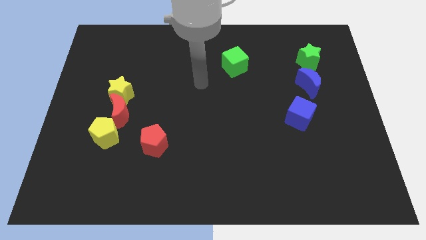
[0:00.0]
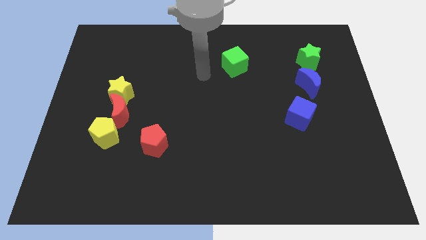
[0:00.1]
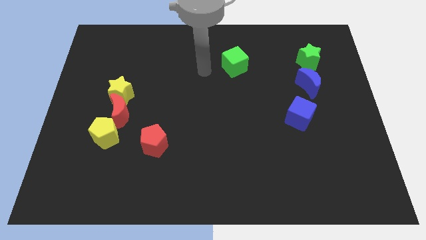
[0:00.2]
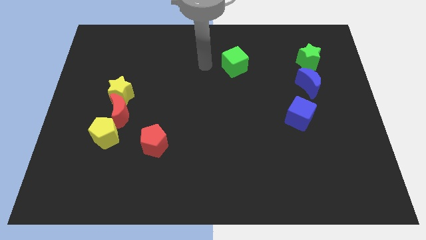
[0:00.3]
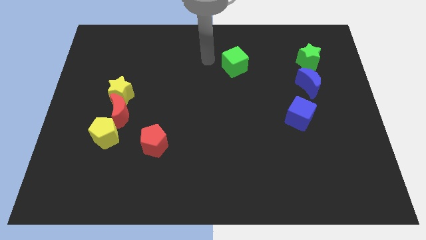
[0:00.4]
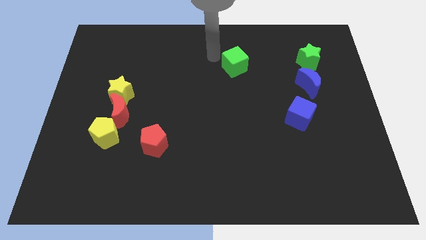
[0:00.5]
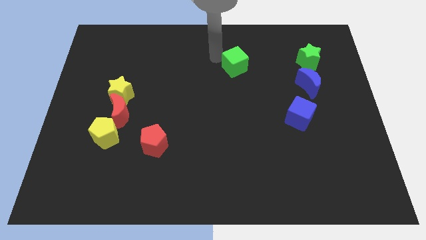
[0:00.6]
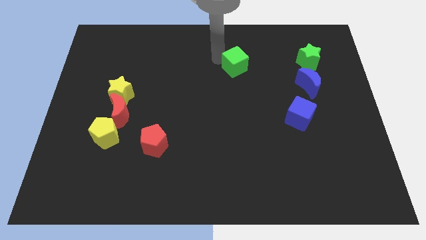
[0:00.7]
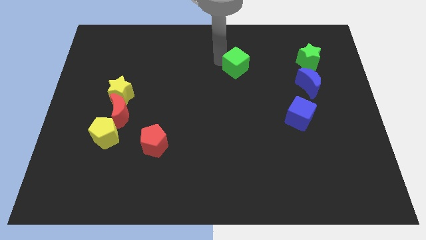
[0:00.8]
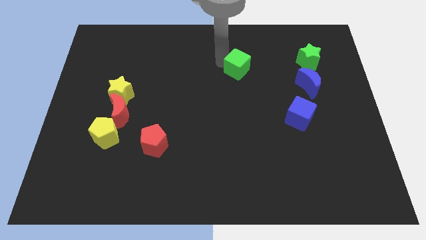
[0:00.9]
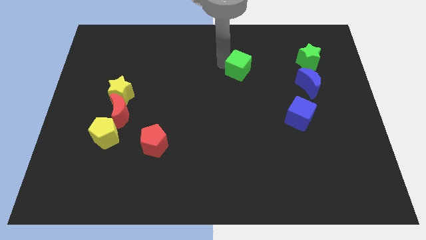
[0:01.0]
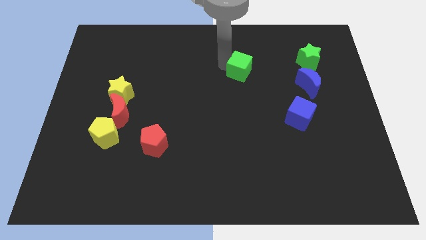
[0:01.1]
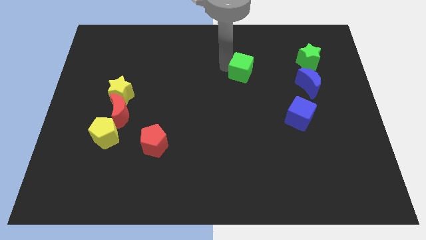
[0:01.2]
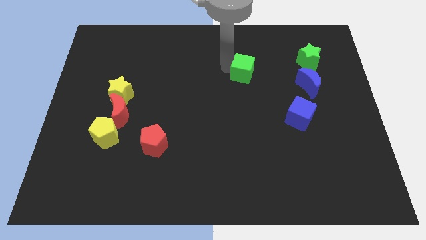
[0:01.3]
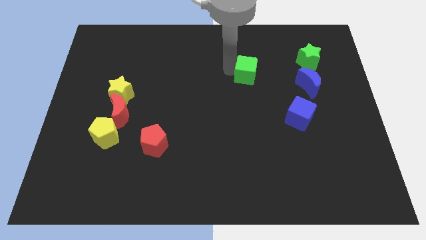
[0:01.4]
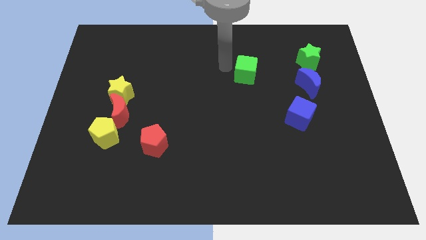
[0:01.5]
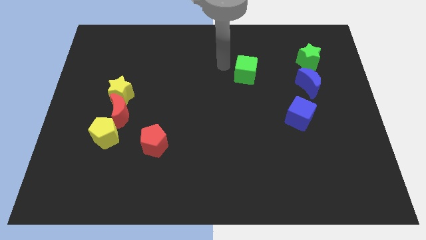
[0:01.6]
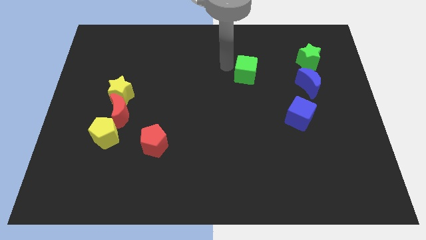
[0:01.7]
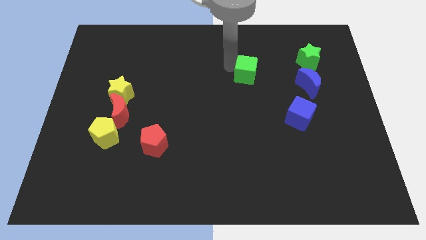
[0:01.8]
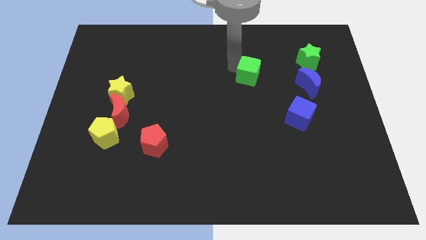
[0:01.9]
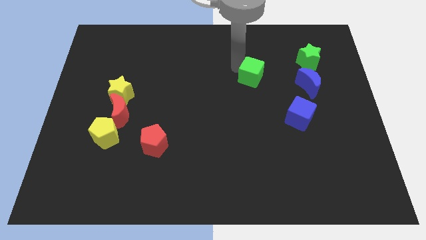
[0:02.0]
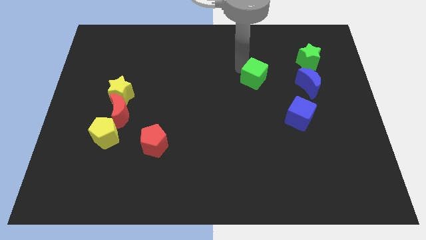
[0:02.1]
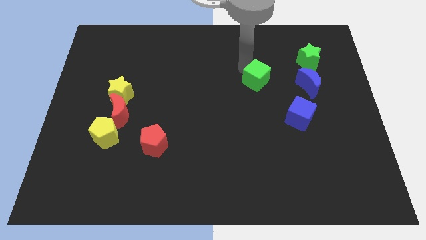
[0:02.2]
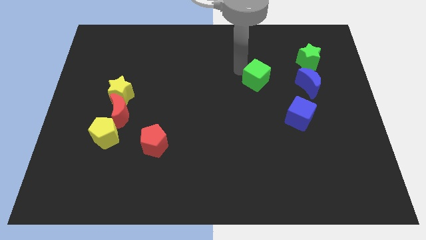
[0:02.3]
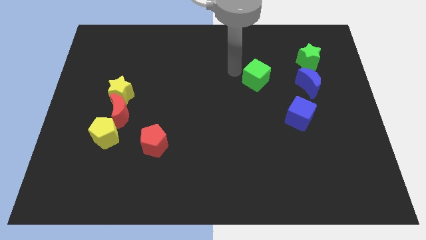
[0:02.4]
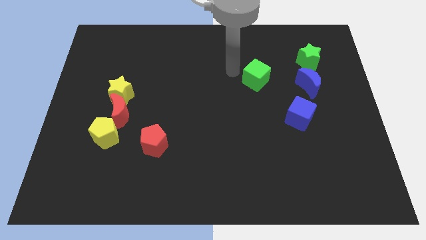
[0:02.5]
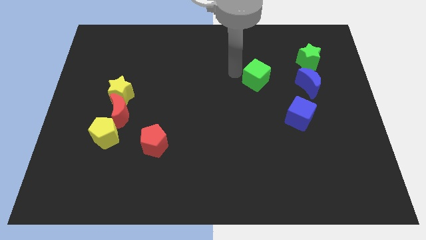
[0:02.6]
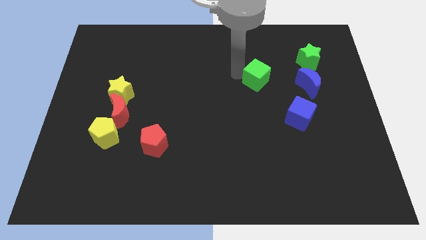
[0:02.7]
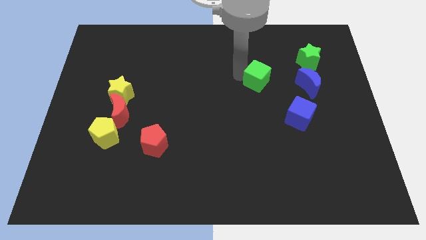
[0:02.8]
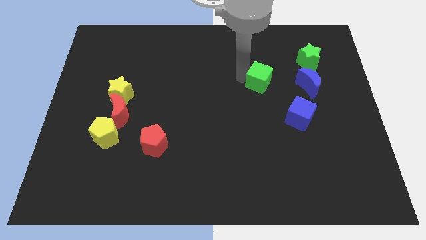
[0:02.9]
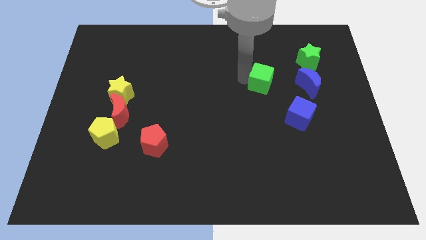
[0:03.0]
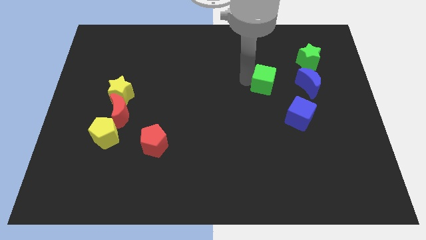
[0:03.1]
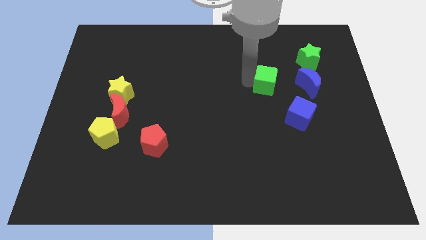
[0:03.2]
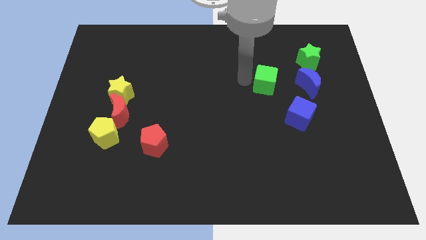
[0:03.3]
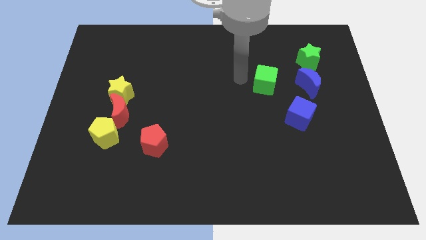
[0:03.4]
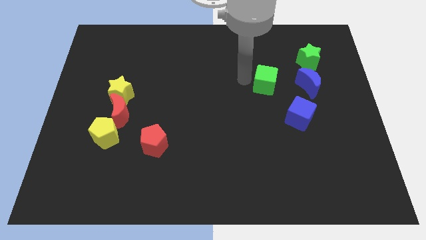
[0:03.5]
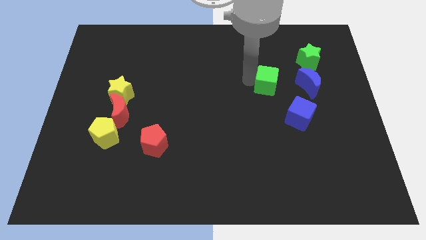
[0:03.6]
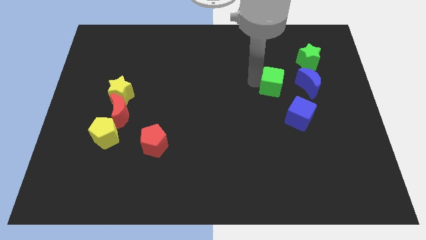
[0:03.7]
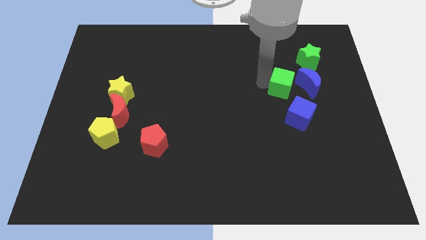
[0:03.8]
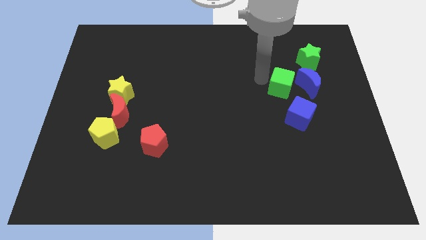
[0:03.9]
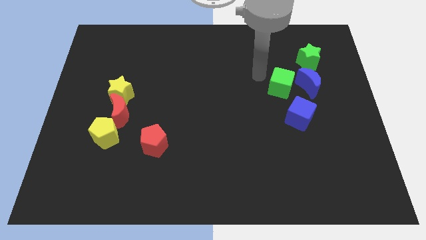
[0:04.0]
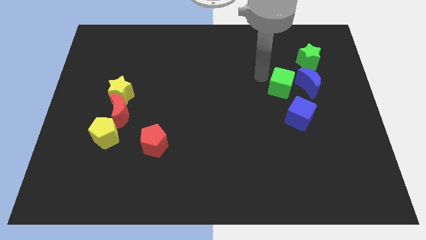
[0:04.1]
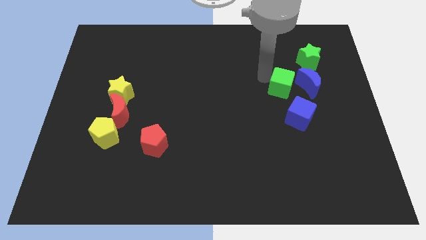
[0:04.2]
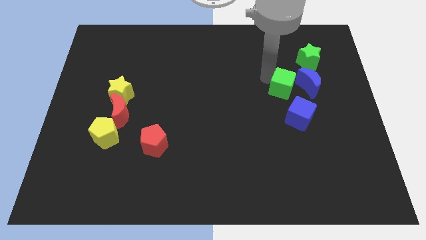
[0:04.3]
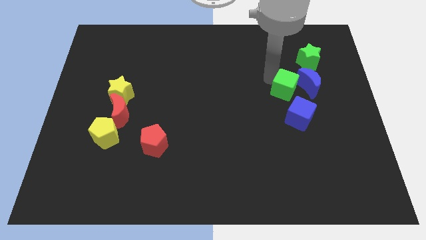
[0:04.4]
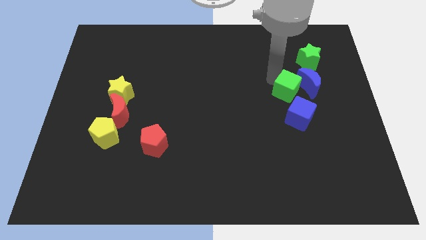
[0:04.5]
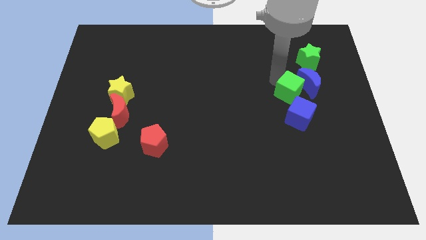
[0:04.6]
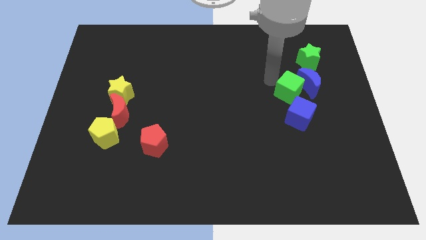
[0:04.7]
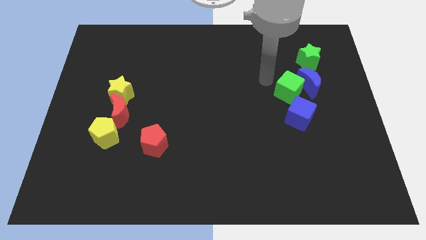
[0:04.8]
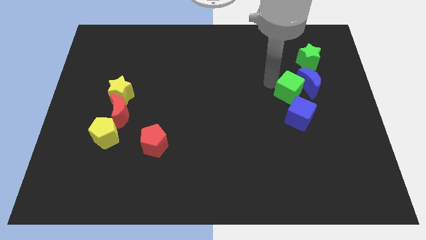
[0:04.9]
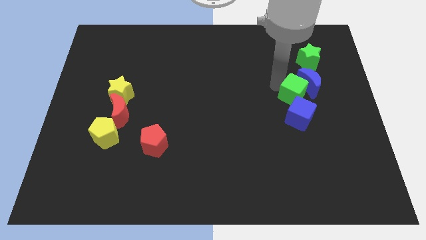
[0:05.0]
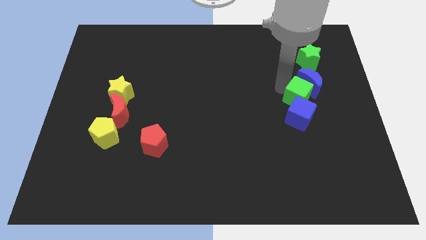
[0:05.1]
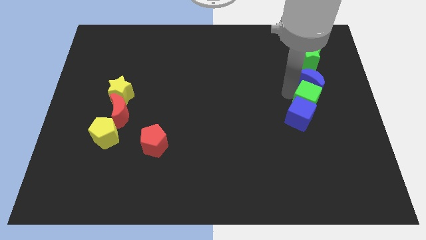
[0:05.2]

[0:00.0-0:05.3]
put the green cube diagonally down and to the right of the blue moon

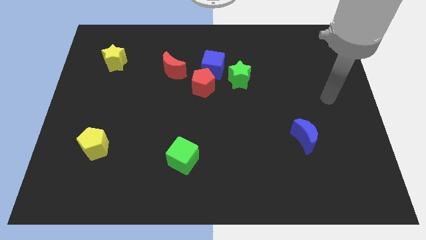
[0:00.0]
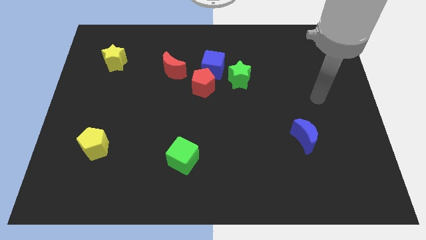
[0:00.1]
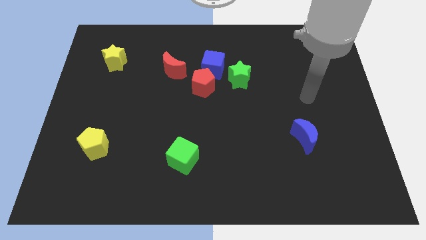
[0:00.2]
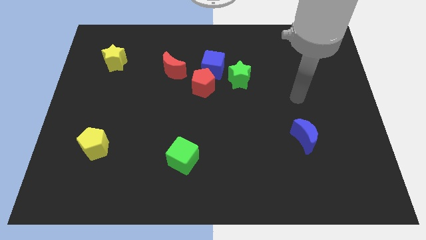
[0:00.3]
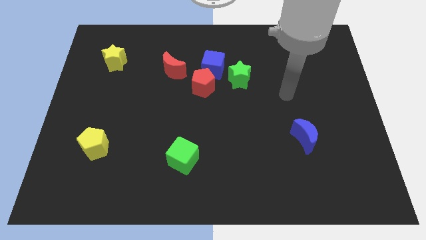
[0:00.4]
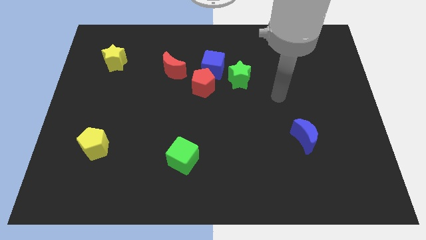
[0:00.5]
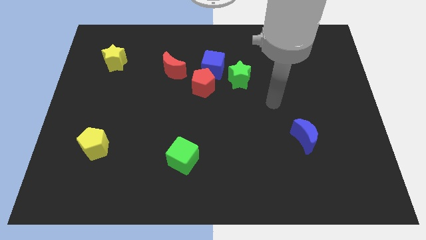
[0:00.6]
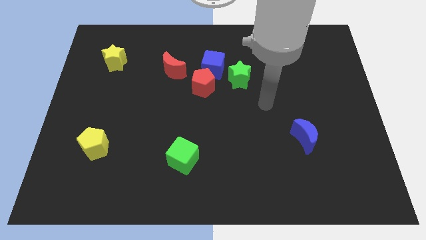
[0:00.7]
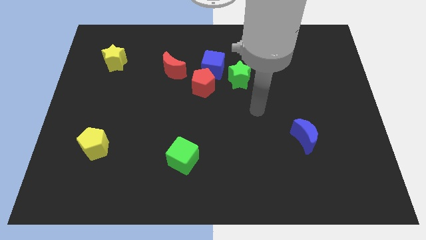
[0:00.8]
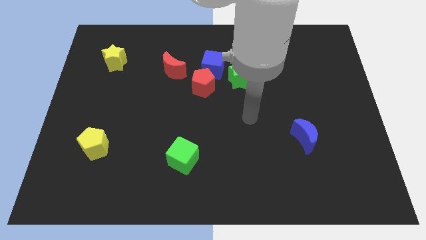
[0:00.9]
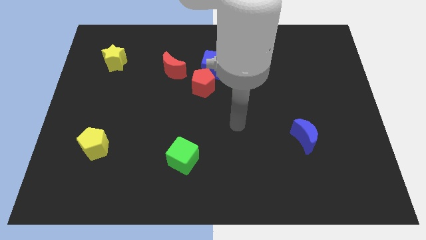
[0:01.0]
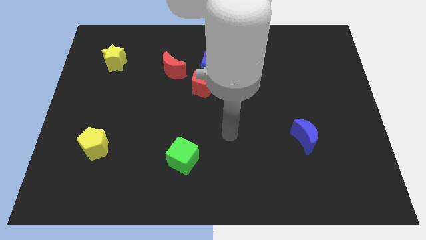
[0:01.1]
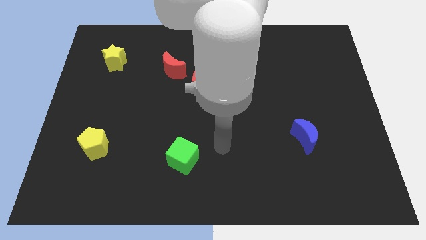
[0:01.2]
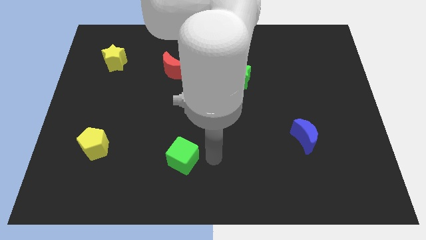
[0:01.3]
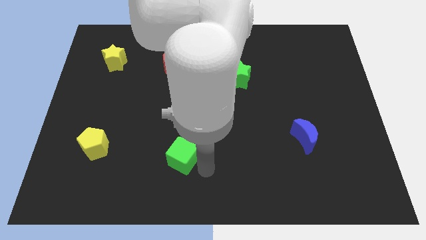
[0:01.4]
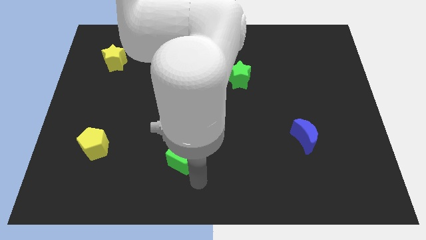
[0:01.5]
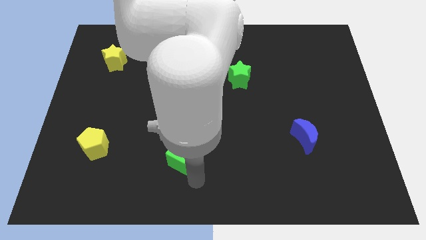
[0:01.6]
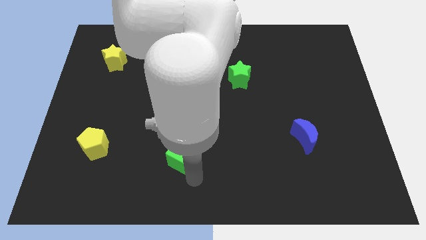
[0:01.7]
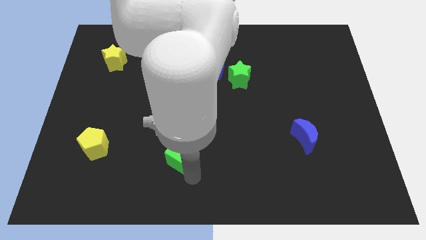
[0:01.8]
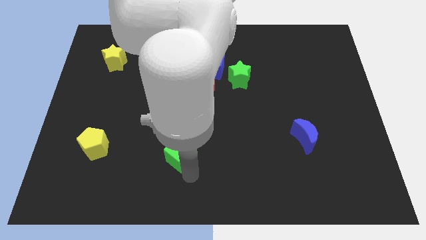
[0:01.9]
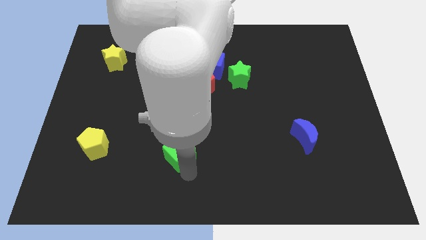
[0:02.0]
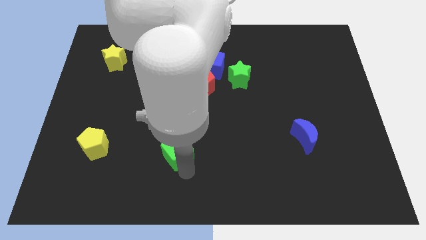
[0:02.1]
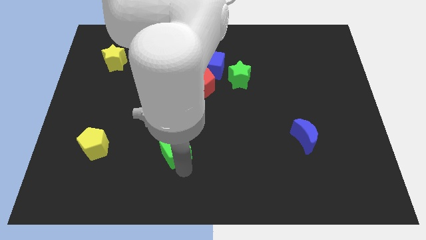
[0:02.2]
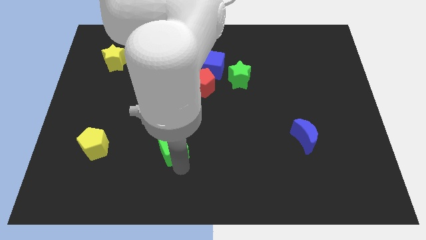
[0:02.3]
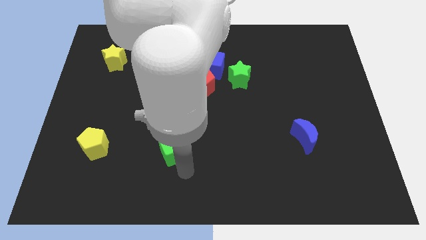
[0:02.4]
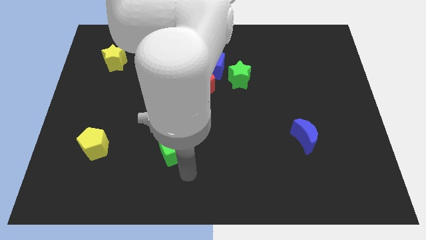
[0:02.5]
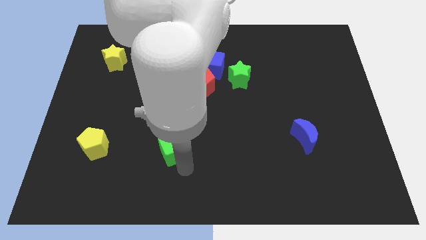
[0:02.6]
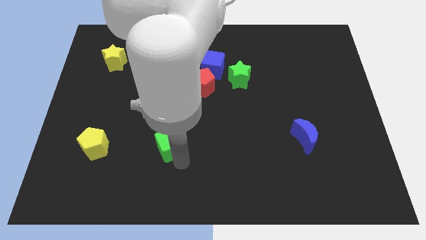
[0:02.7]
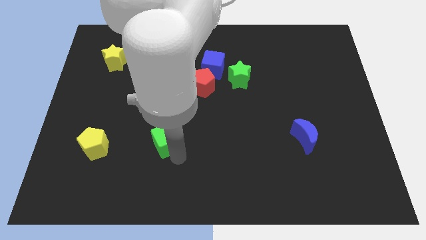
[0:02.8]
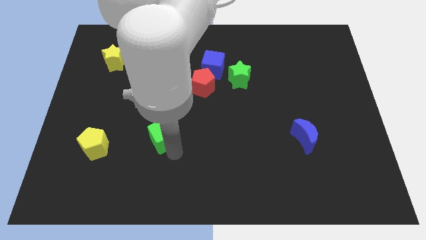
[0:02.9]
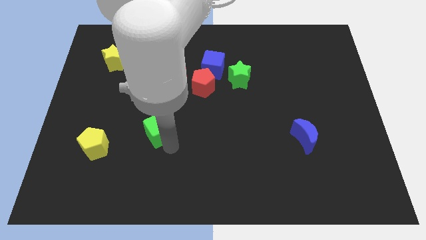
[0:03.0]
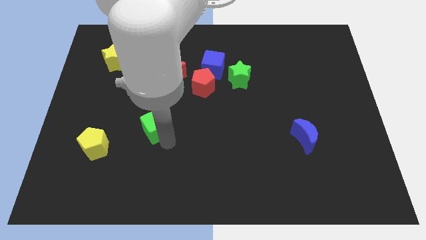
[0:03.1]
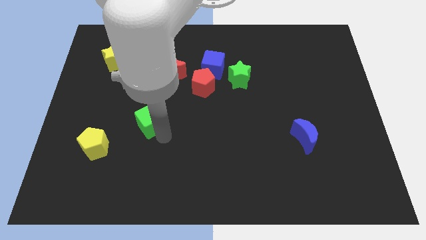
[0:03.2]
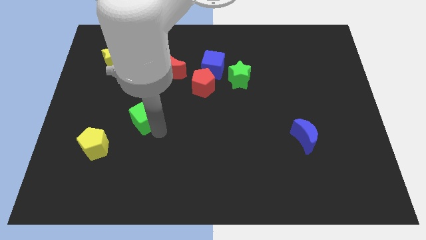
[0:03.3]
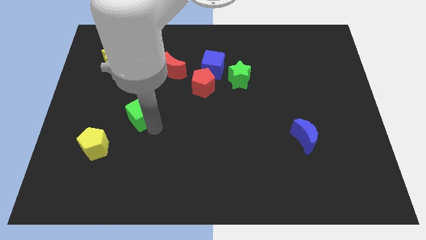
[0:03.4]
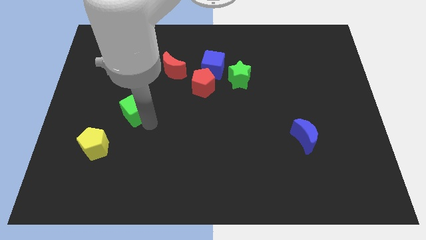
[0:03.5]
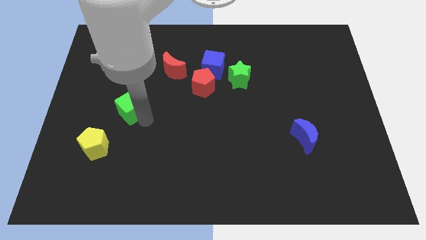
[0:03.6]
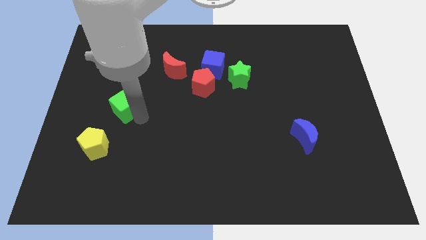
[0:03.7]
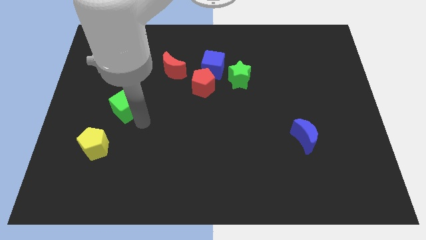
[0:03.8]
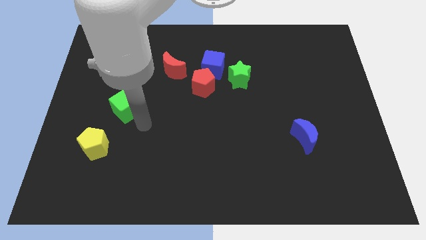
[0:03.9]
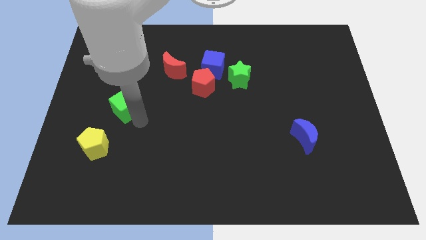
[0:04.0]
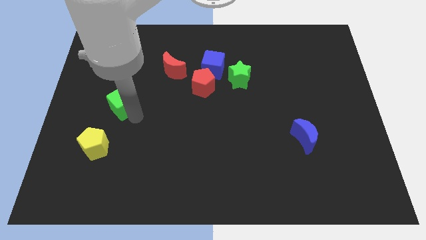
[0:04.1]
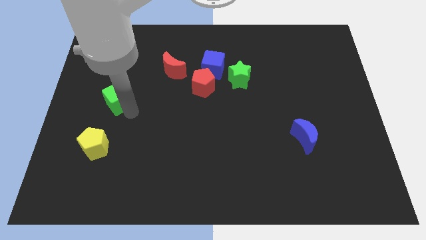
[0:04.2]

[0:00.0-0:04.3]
slide the green cube to the bottom side of the yellow star
